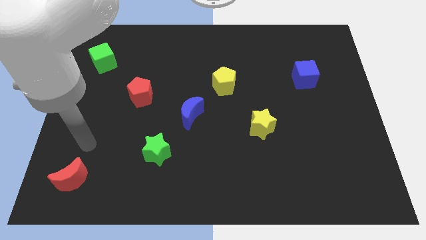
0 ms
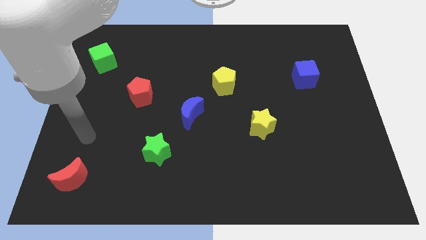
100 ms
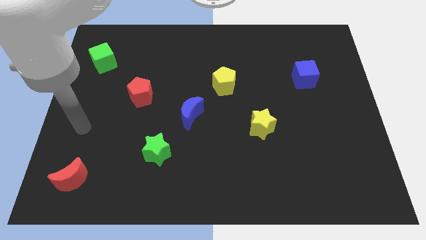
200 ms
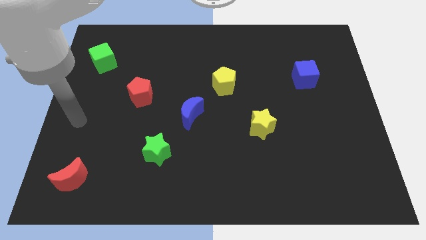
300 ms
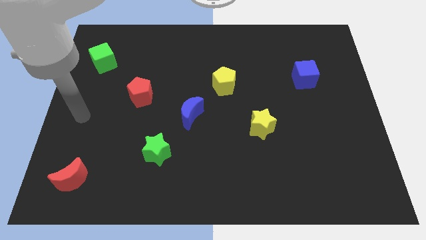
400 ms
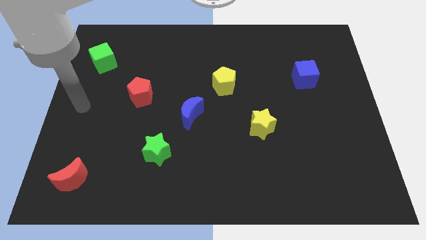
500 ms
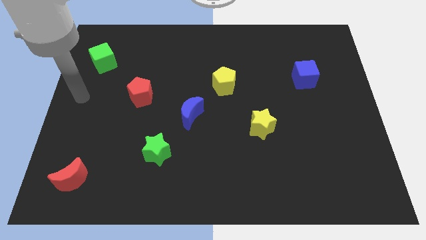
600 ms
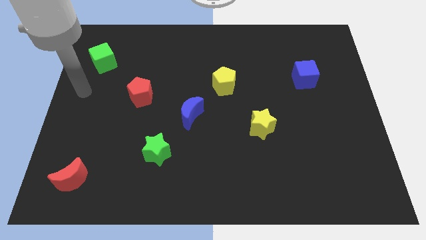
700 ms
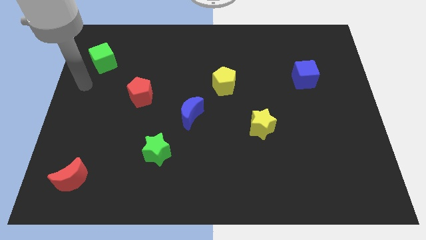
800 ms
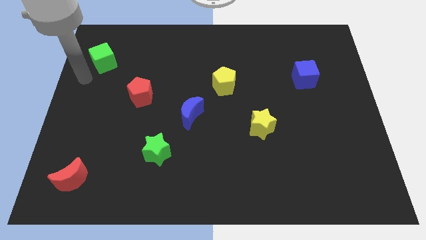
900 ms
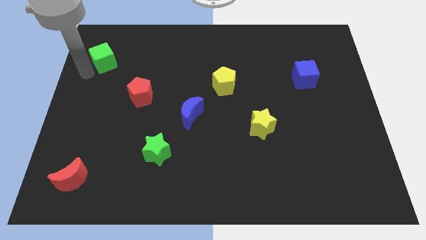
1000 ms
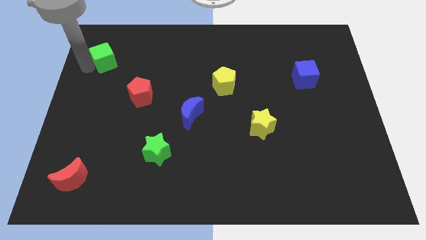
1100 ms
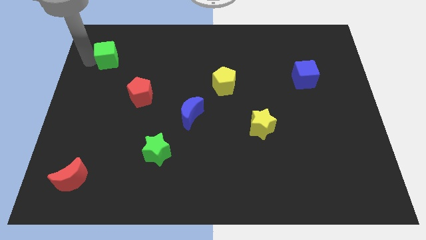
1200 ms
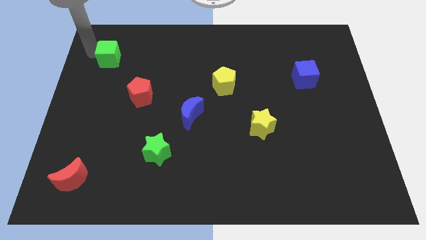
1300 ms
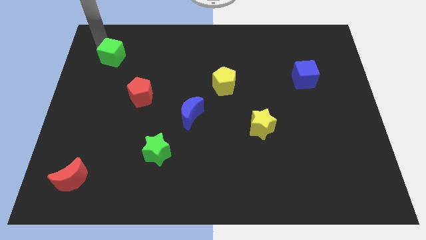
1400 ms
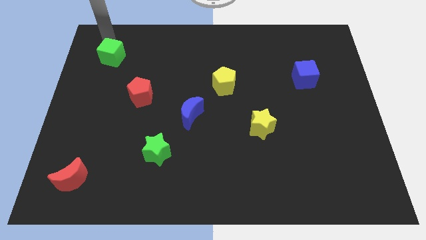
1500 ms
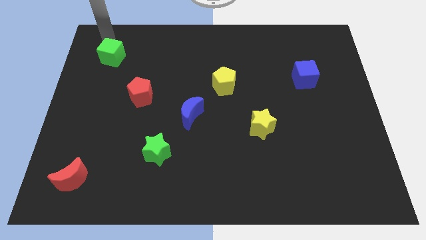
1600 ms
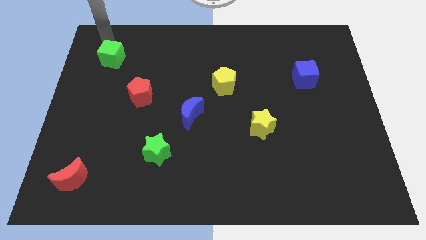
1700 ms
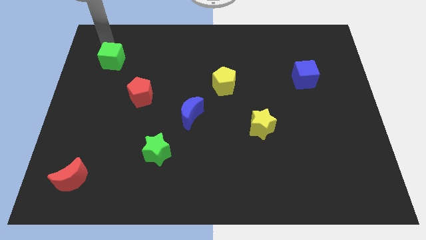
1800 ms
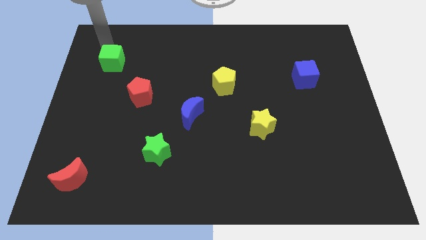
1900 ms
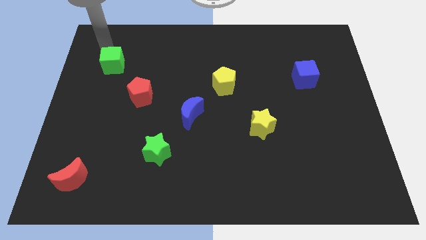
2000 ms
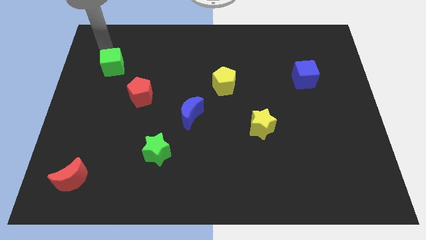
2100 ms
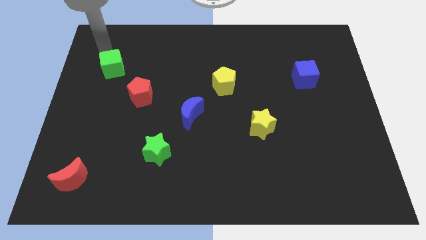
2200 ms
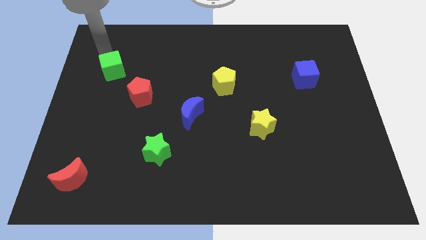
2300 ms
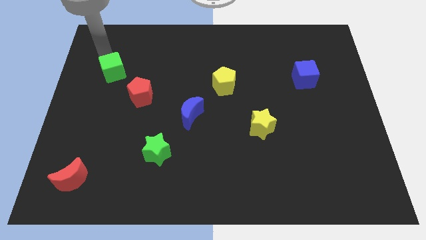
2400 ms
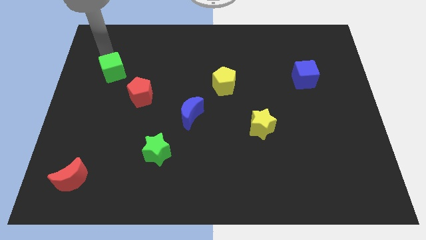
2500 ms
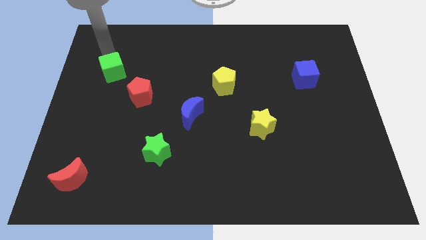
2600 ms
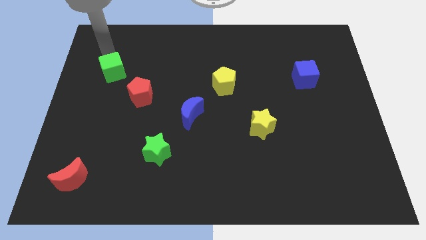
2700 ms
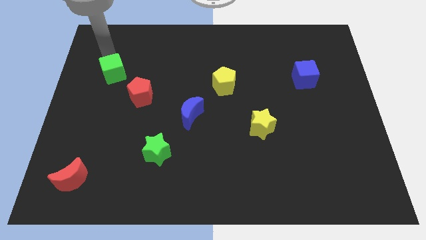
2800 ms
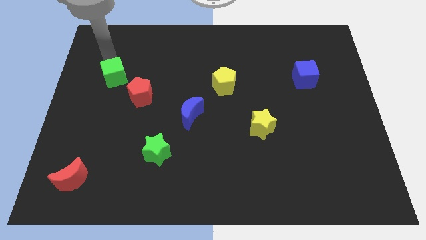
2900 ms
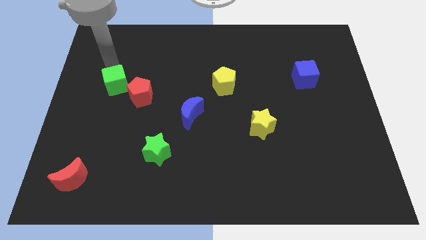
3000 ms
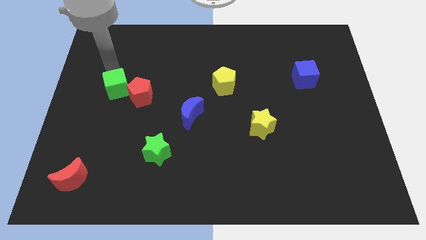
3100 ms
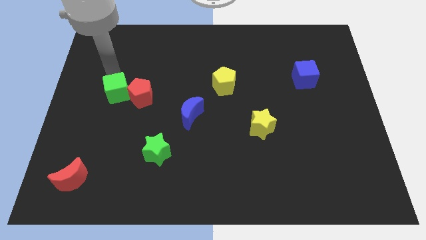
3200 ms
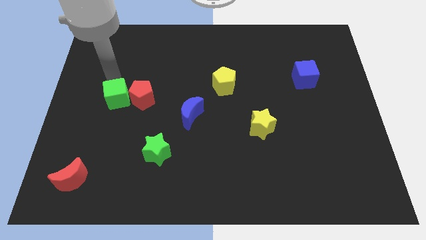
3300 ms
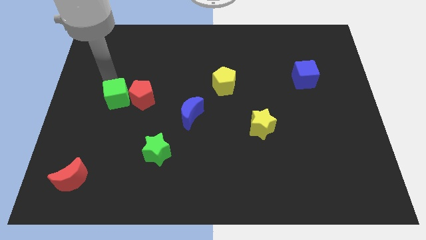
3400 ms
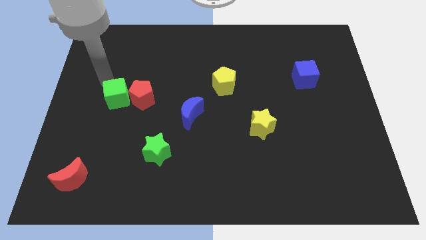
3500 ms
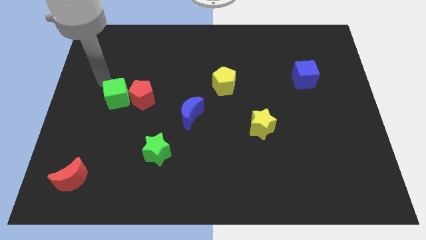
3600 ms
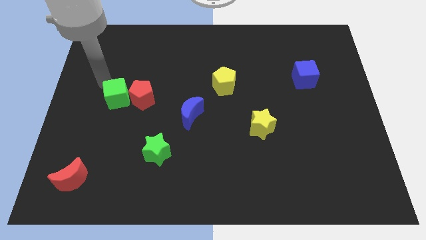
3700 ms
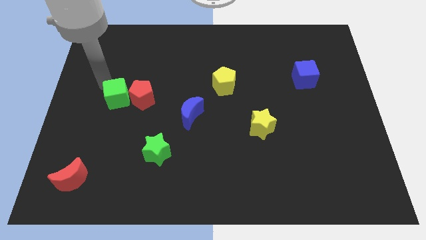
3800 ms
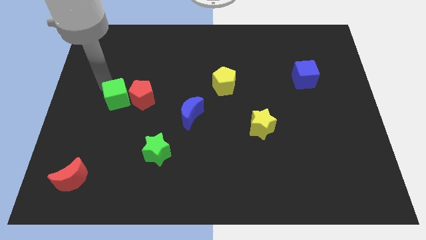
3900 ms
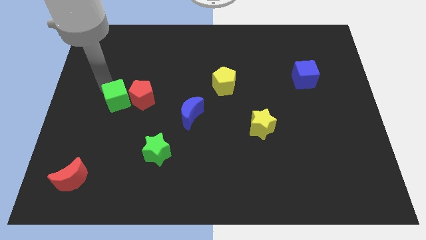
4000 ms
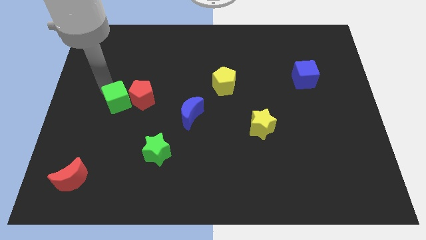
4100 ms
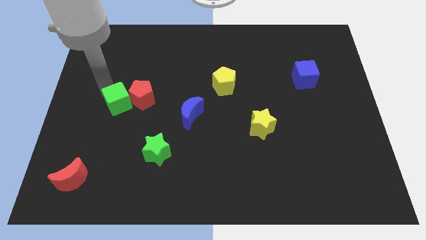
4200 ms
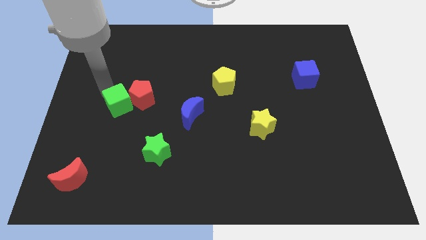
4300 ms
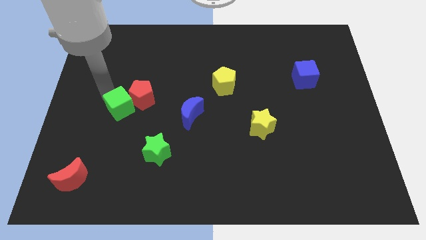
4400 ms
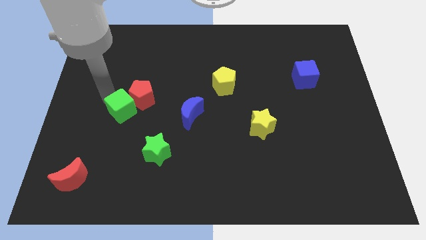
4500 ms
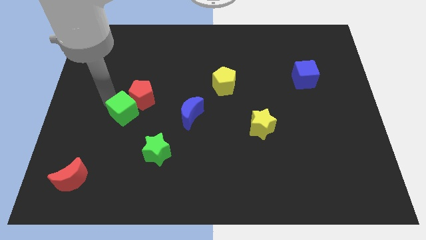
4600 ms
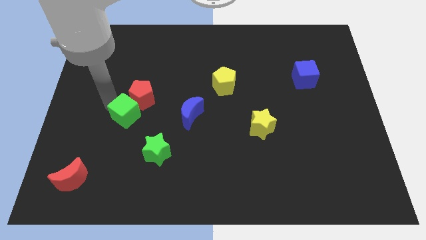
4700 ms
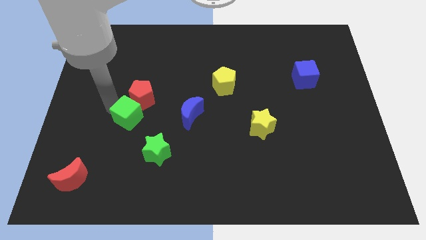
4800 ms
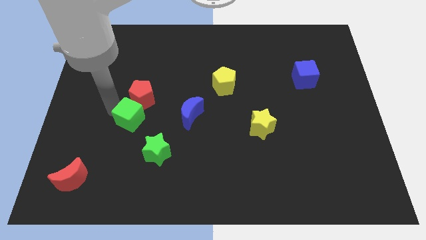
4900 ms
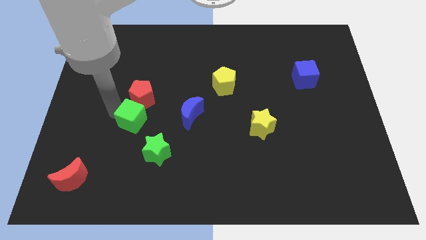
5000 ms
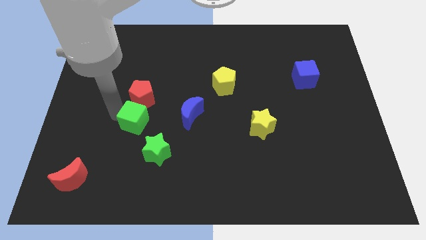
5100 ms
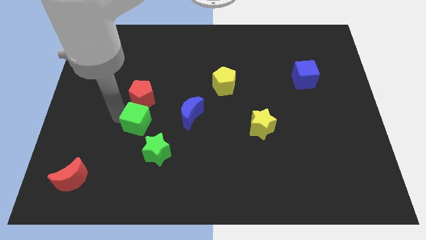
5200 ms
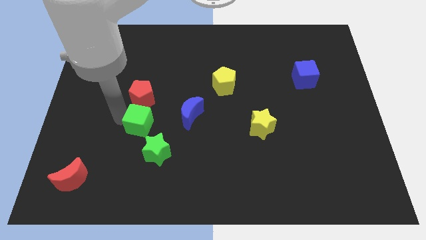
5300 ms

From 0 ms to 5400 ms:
move the green cube above the green star
